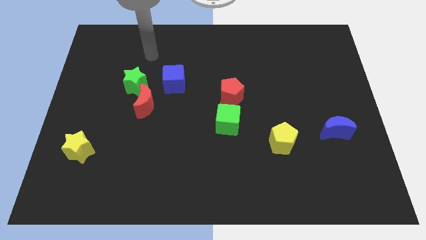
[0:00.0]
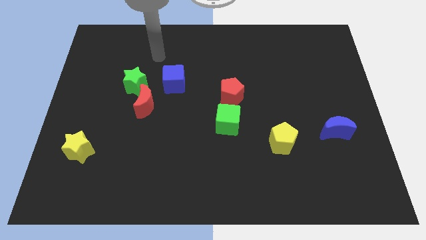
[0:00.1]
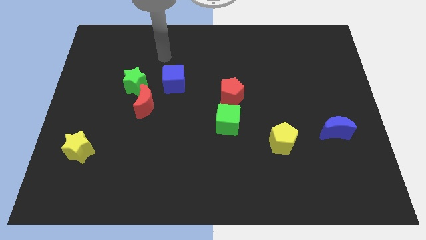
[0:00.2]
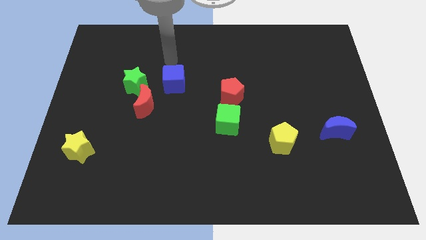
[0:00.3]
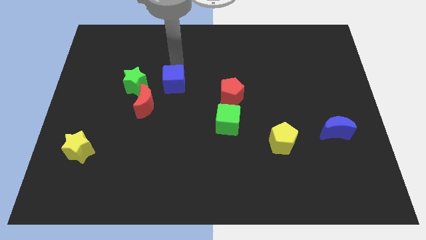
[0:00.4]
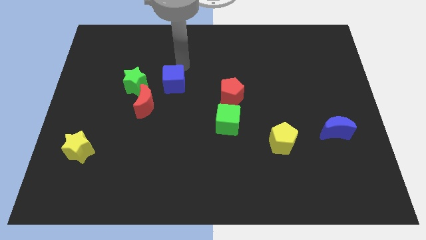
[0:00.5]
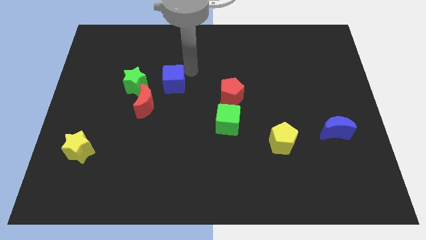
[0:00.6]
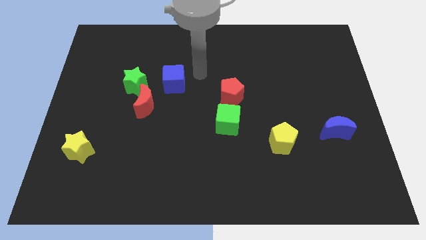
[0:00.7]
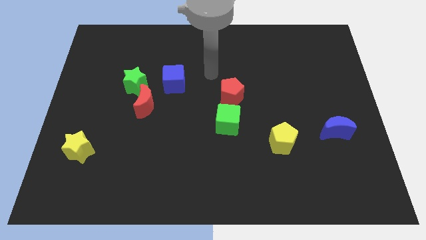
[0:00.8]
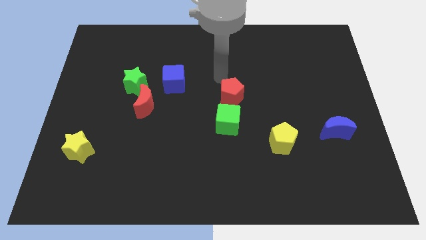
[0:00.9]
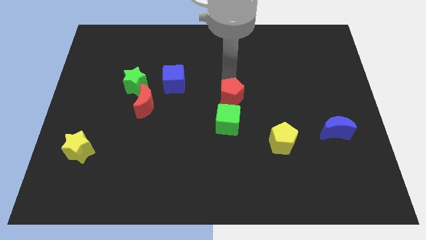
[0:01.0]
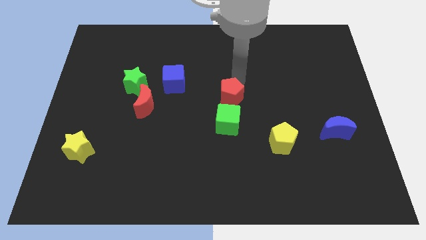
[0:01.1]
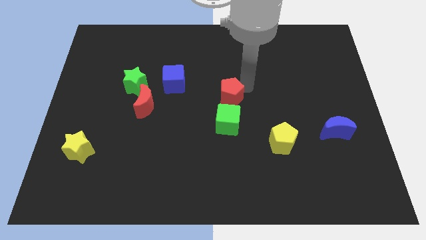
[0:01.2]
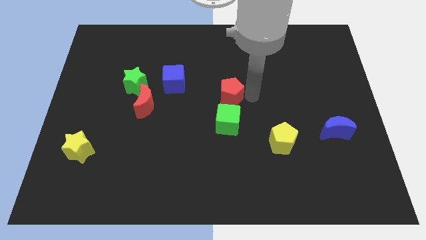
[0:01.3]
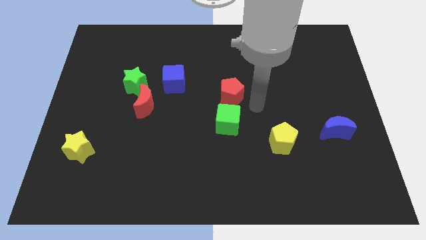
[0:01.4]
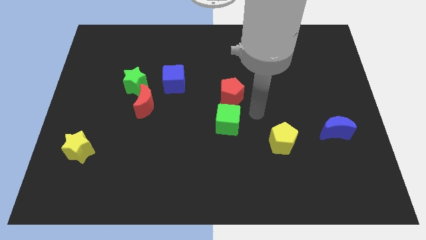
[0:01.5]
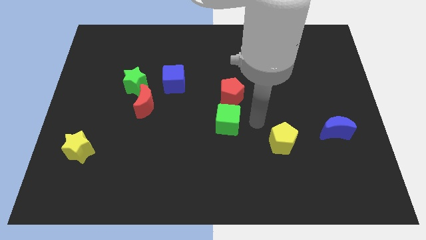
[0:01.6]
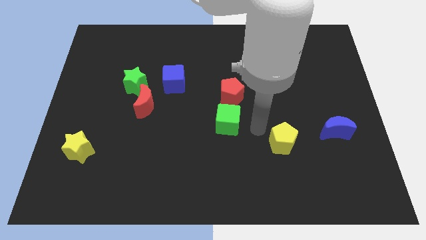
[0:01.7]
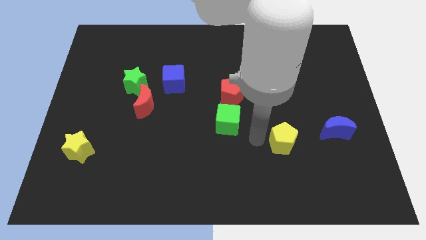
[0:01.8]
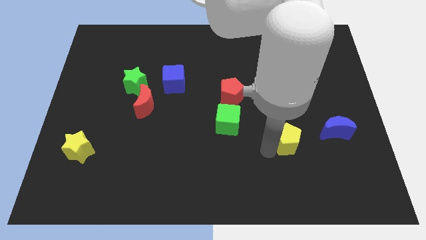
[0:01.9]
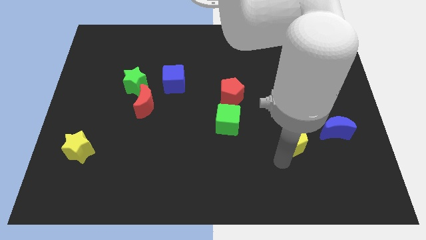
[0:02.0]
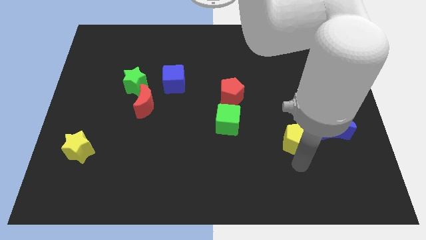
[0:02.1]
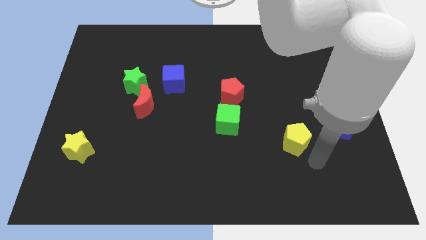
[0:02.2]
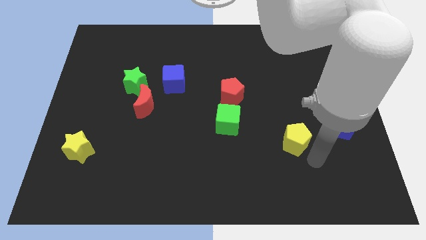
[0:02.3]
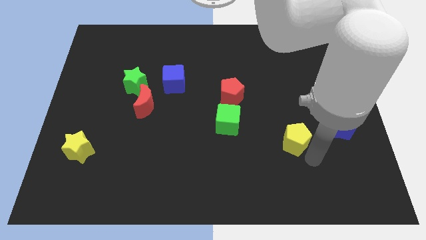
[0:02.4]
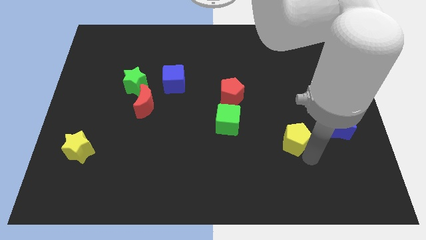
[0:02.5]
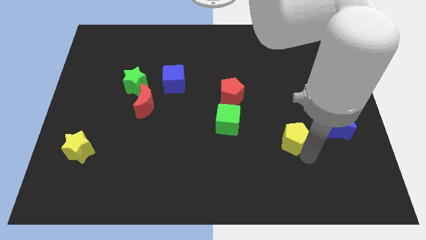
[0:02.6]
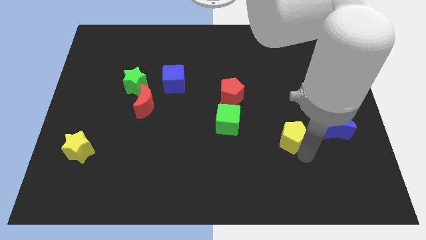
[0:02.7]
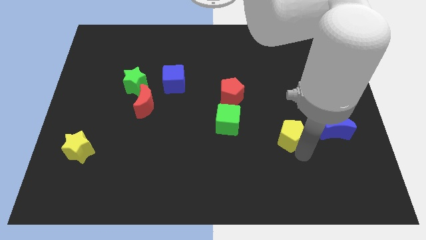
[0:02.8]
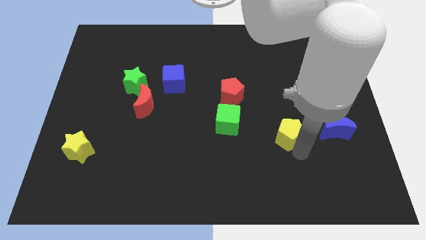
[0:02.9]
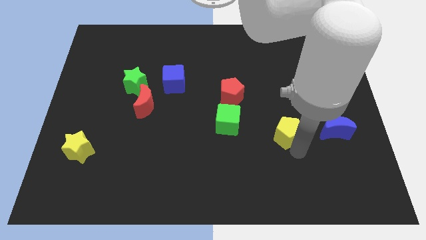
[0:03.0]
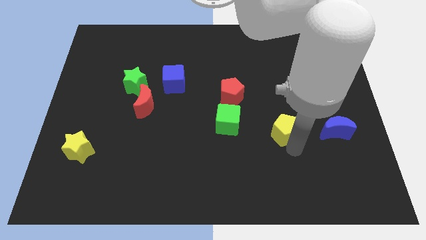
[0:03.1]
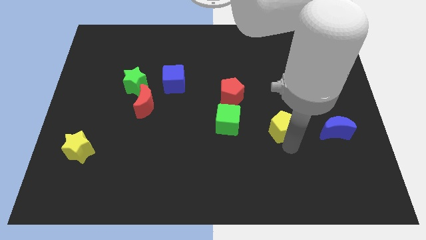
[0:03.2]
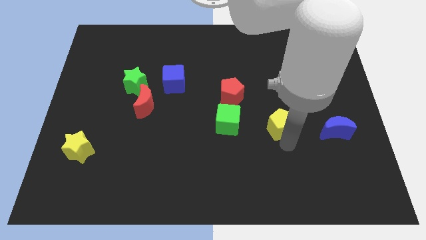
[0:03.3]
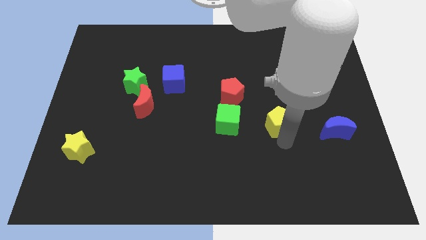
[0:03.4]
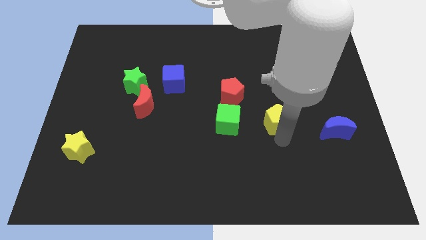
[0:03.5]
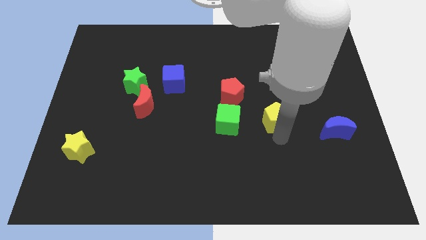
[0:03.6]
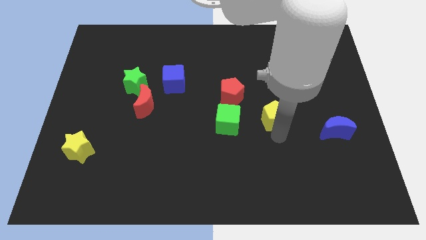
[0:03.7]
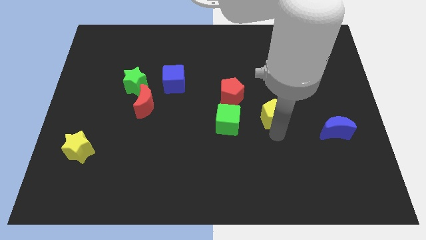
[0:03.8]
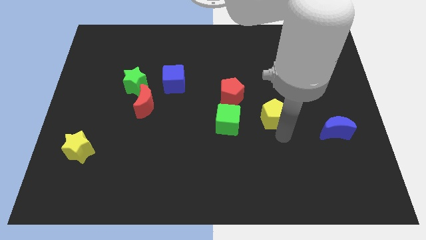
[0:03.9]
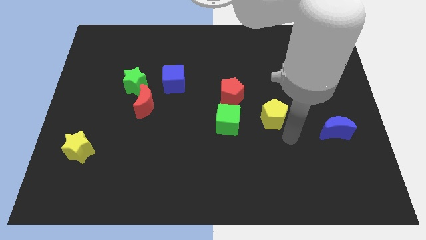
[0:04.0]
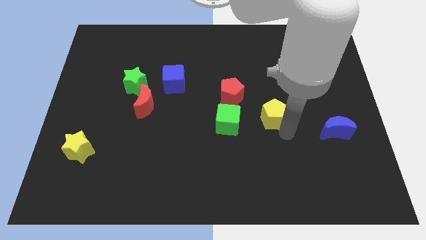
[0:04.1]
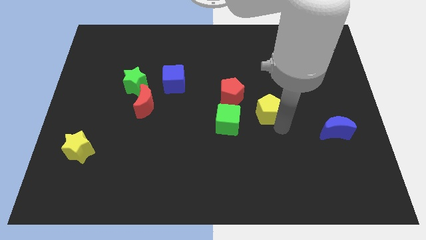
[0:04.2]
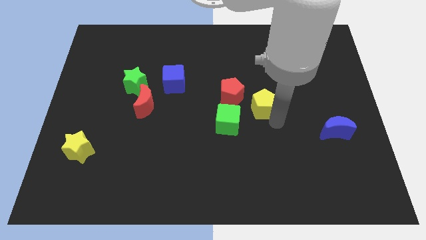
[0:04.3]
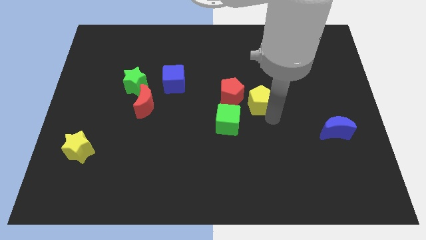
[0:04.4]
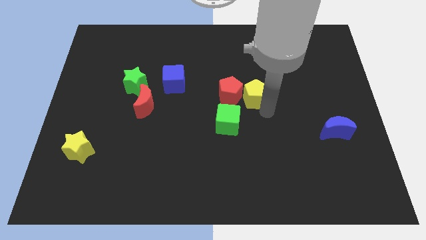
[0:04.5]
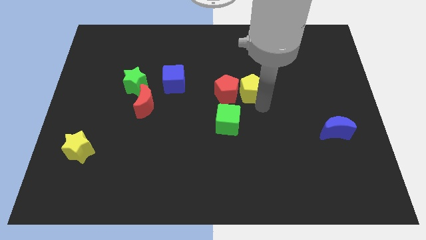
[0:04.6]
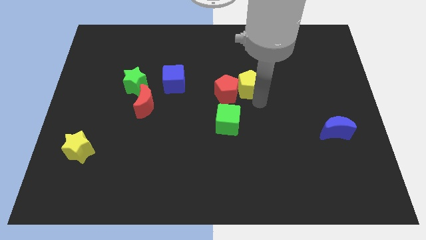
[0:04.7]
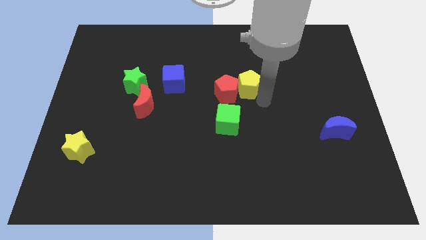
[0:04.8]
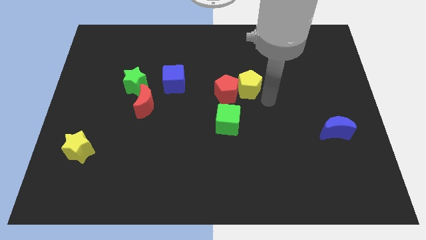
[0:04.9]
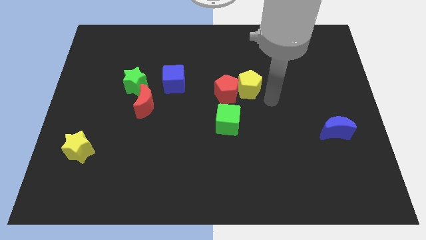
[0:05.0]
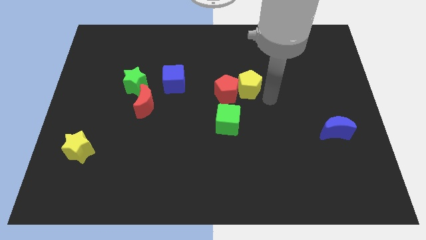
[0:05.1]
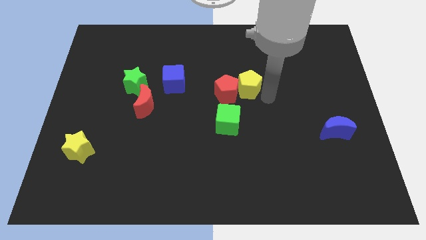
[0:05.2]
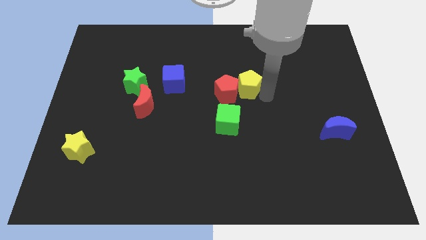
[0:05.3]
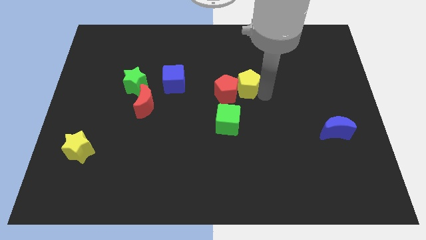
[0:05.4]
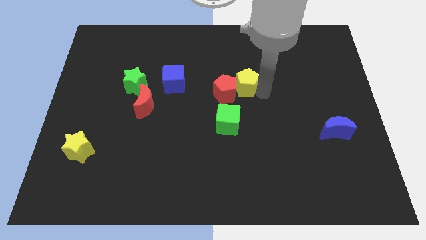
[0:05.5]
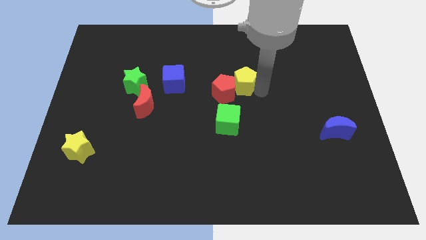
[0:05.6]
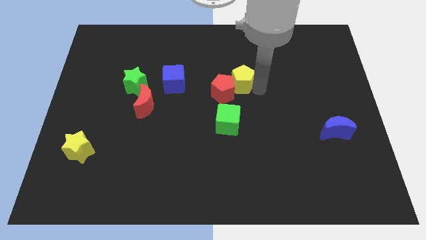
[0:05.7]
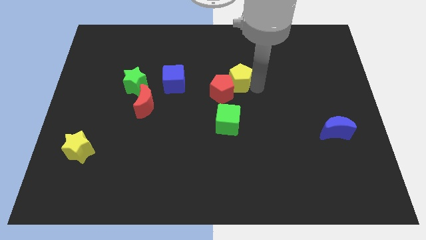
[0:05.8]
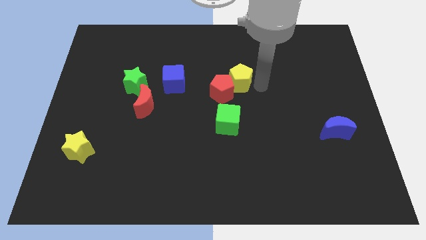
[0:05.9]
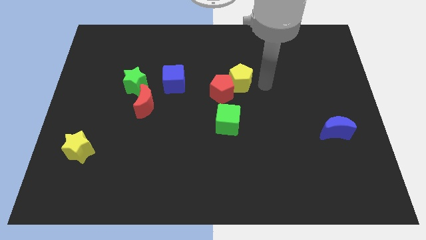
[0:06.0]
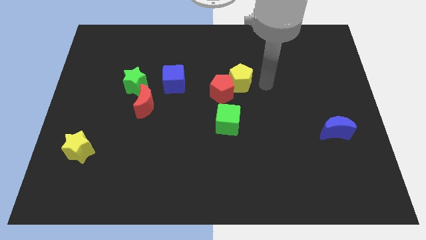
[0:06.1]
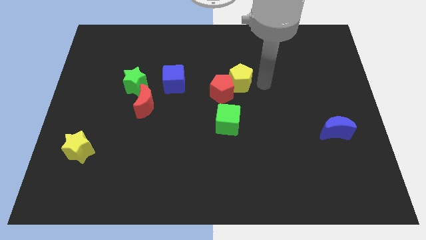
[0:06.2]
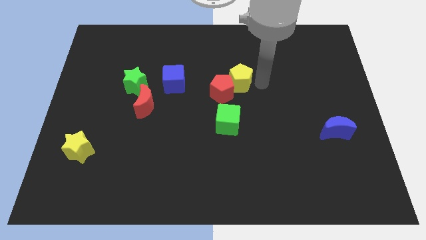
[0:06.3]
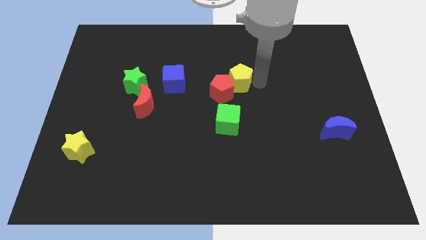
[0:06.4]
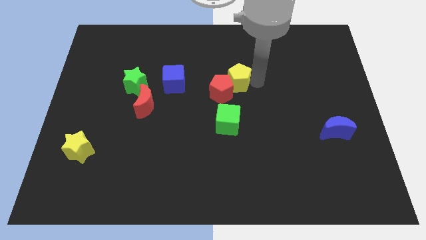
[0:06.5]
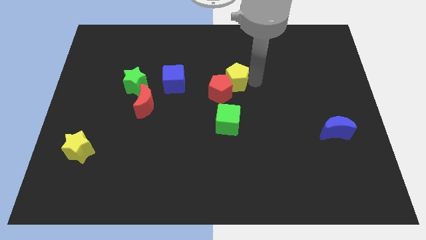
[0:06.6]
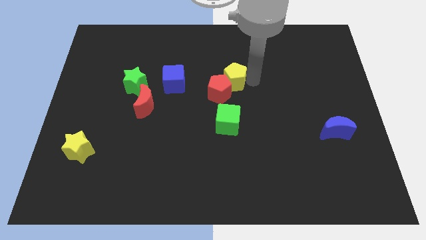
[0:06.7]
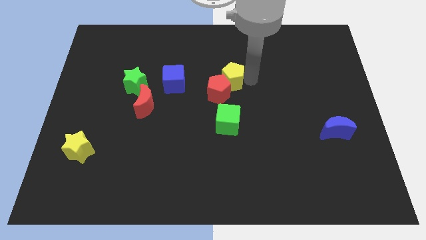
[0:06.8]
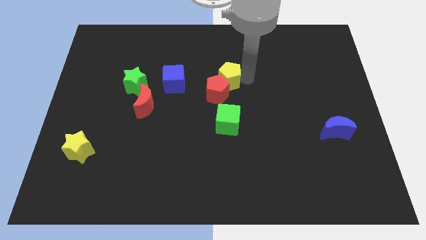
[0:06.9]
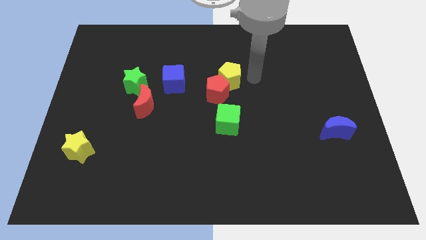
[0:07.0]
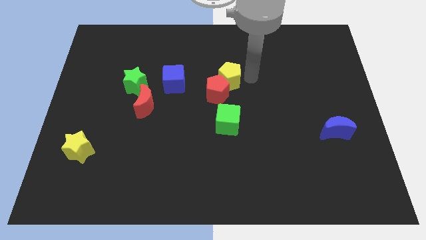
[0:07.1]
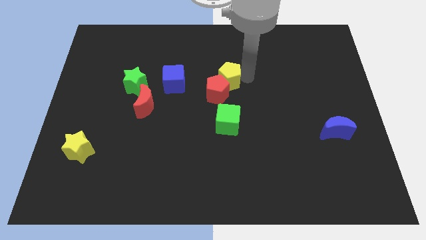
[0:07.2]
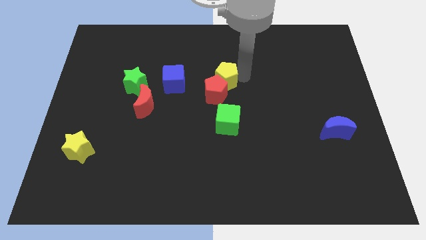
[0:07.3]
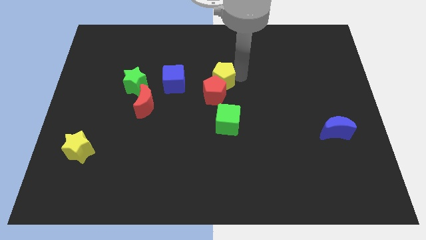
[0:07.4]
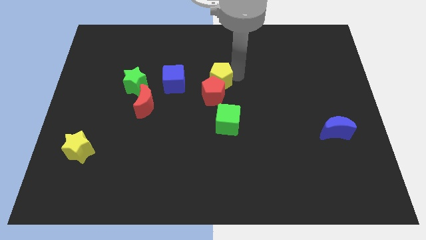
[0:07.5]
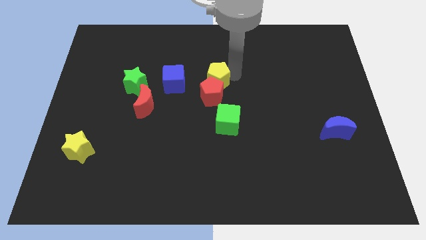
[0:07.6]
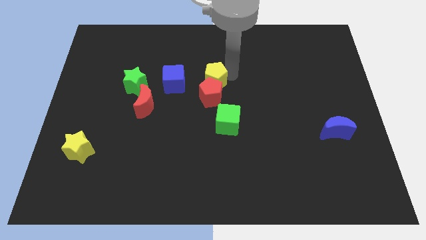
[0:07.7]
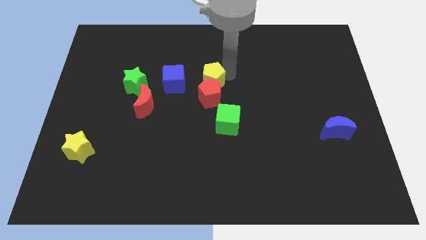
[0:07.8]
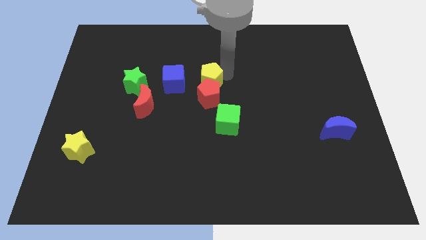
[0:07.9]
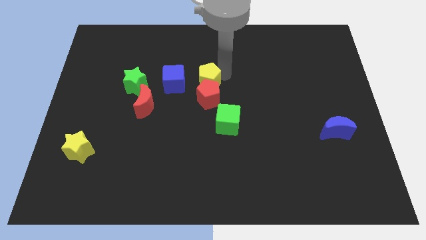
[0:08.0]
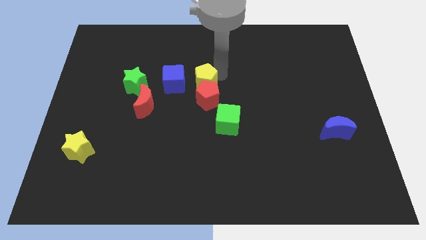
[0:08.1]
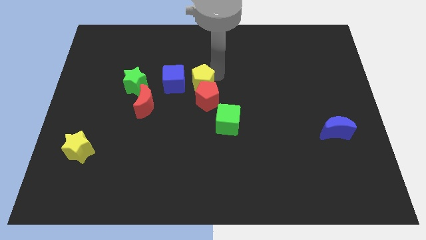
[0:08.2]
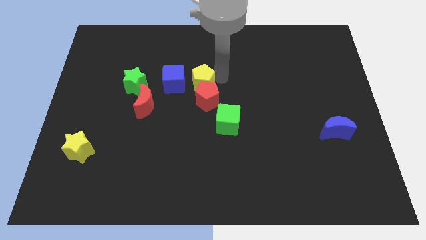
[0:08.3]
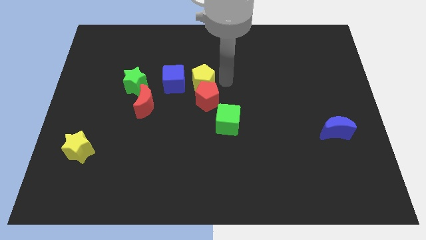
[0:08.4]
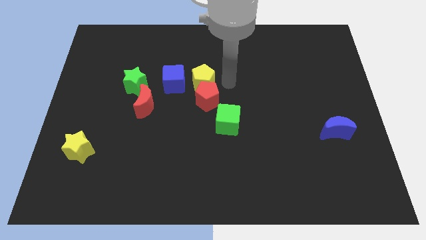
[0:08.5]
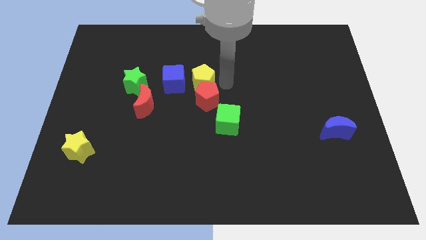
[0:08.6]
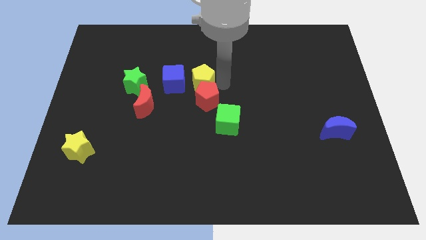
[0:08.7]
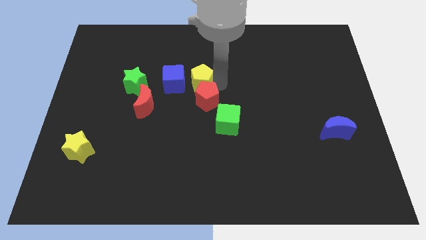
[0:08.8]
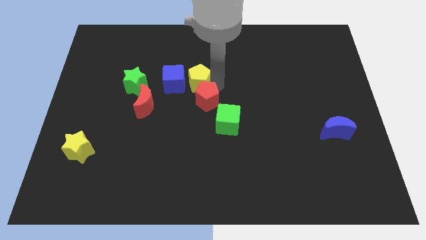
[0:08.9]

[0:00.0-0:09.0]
push the yellow pentagon next to the blue cube
